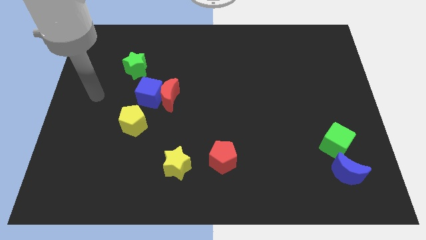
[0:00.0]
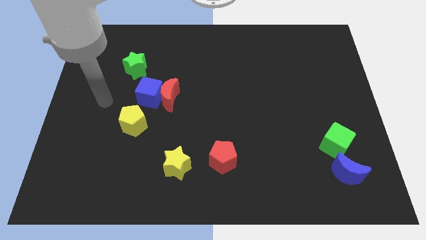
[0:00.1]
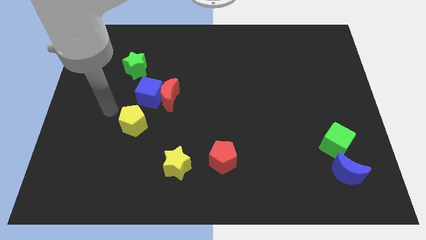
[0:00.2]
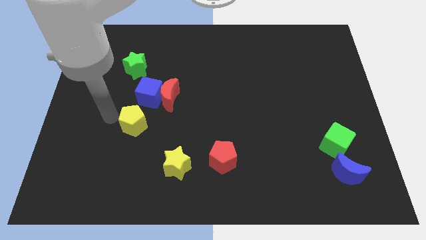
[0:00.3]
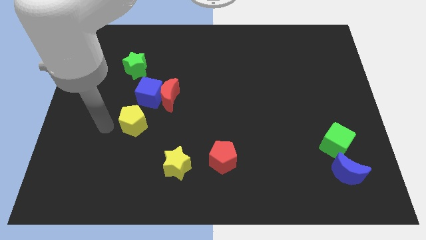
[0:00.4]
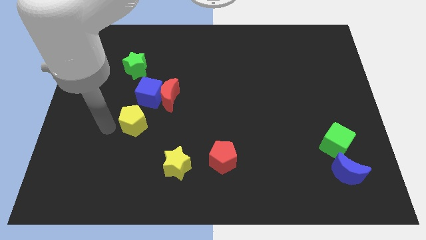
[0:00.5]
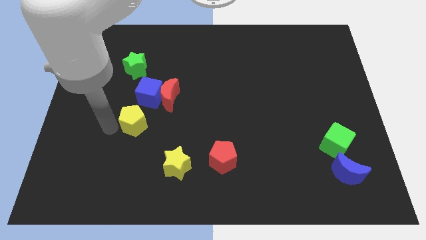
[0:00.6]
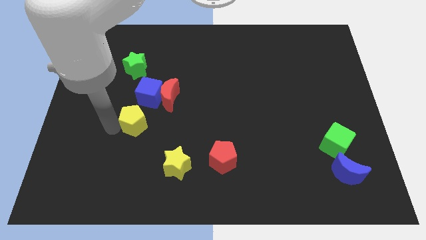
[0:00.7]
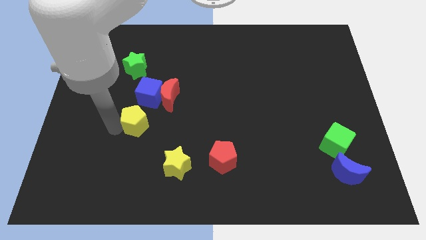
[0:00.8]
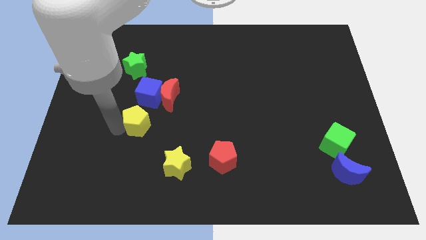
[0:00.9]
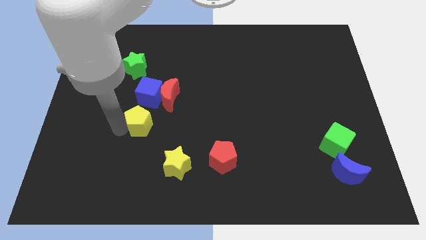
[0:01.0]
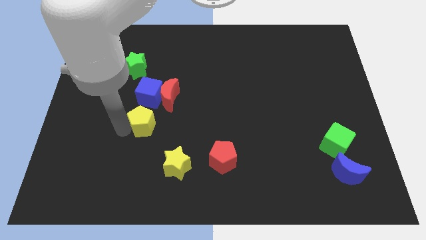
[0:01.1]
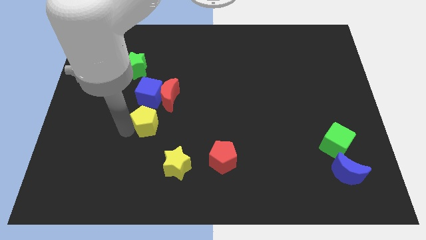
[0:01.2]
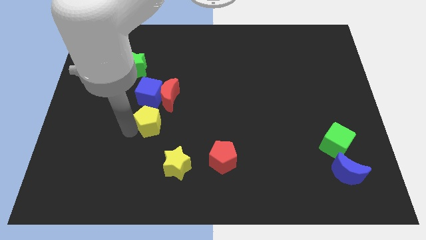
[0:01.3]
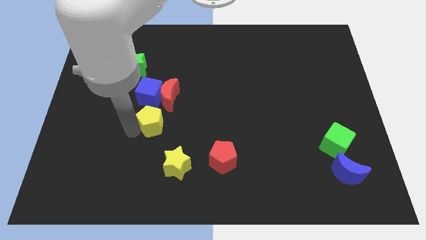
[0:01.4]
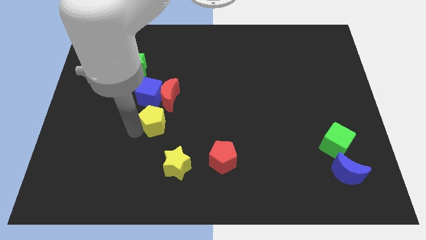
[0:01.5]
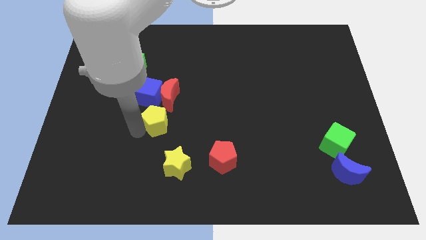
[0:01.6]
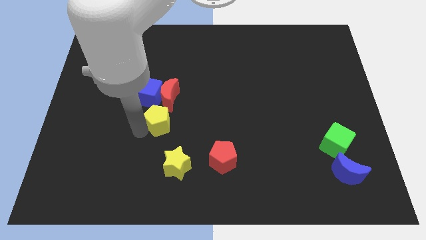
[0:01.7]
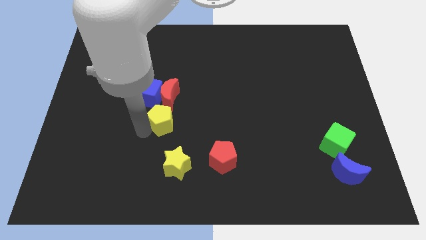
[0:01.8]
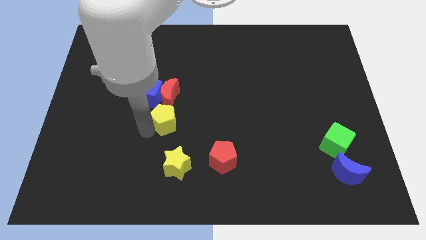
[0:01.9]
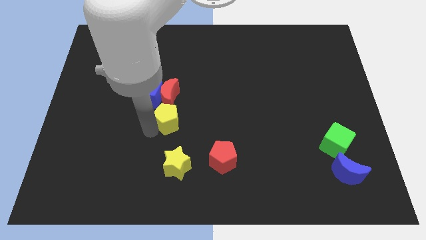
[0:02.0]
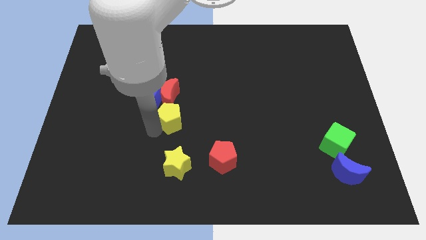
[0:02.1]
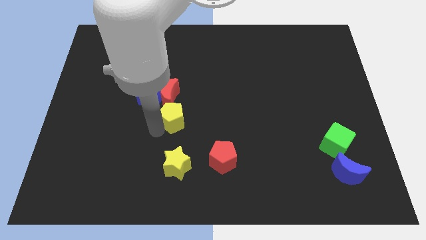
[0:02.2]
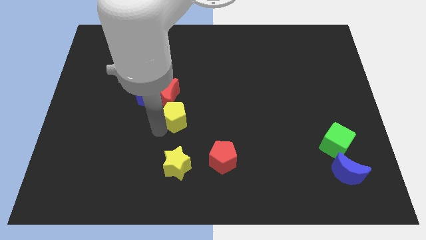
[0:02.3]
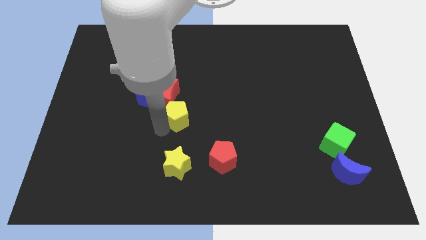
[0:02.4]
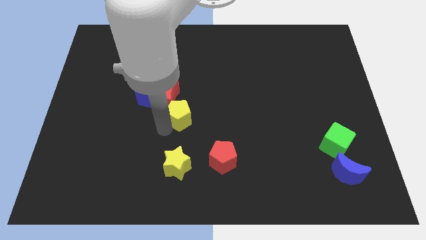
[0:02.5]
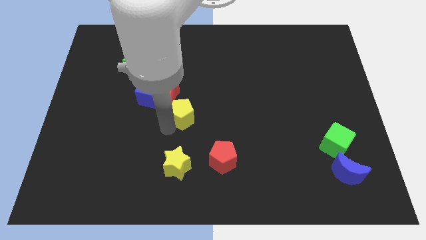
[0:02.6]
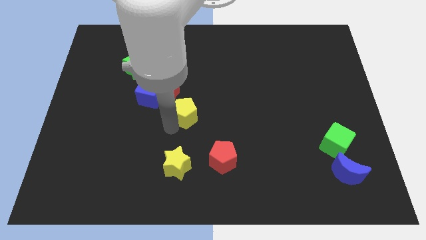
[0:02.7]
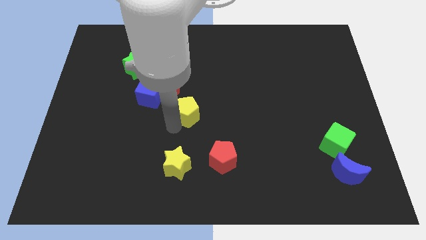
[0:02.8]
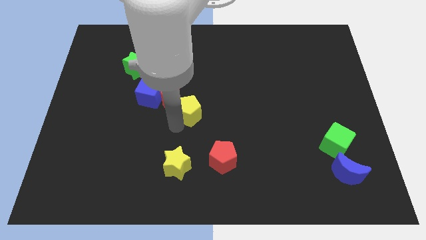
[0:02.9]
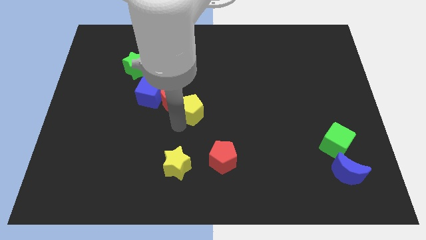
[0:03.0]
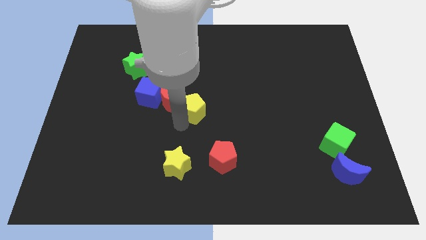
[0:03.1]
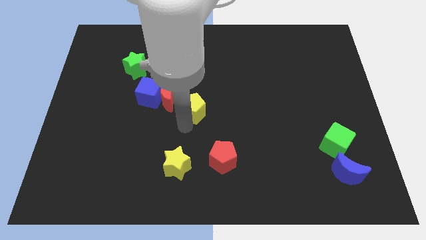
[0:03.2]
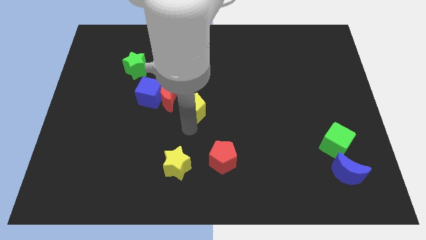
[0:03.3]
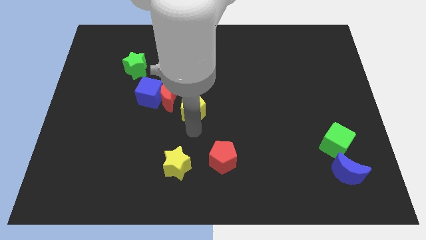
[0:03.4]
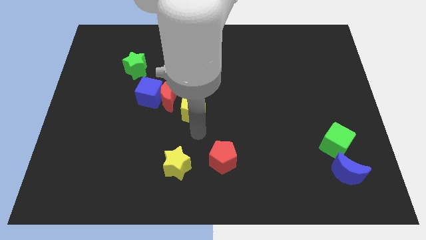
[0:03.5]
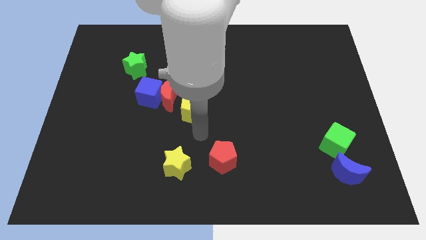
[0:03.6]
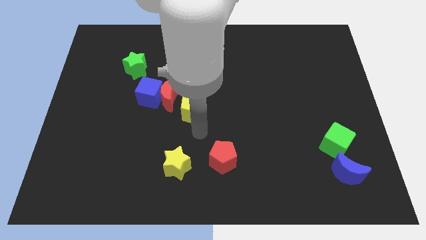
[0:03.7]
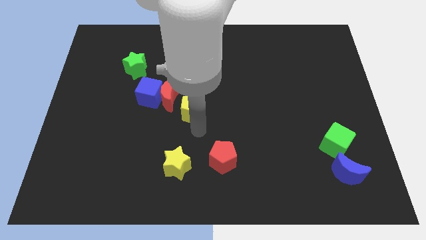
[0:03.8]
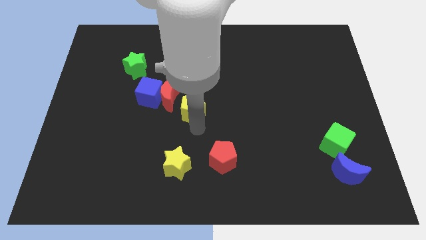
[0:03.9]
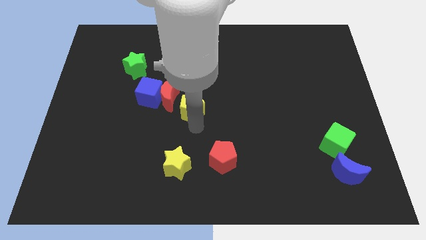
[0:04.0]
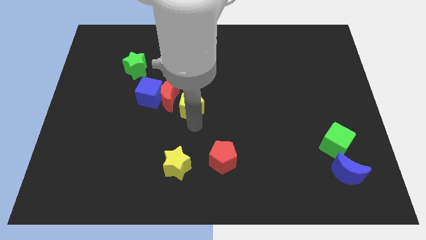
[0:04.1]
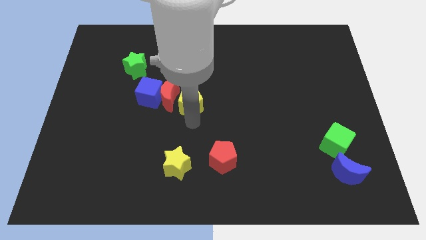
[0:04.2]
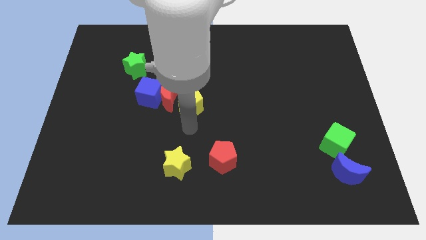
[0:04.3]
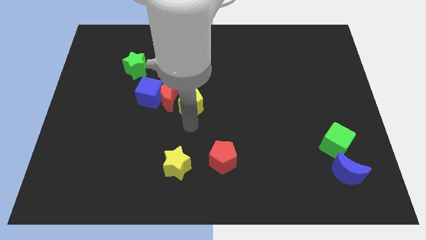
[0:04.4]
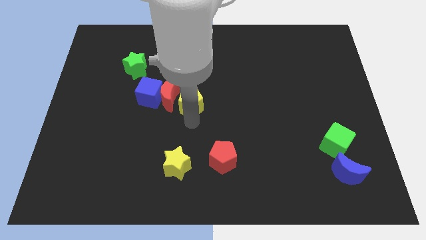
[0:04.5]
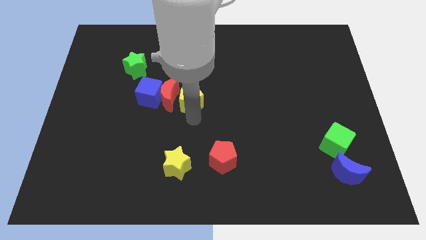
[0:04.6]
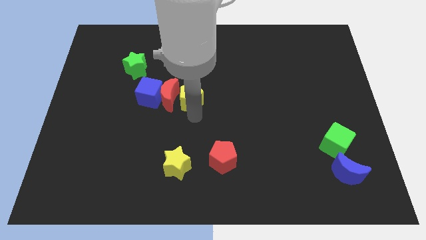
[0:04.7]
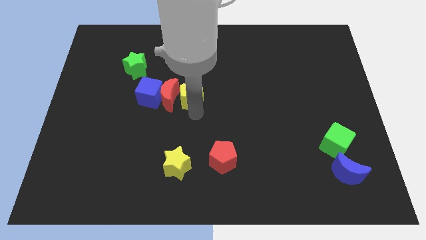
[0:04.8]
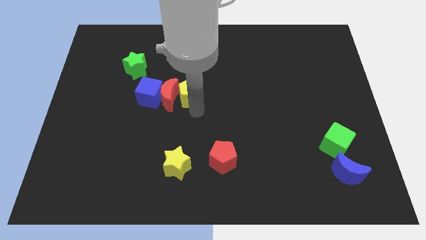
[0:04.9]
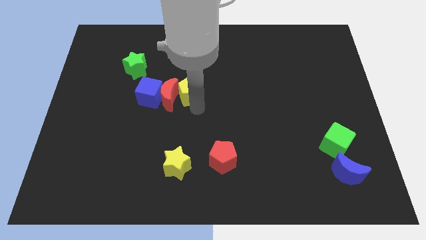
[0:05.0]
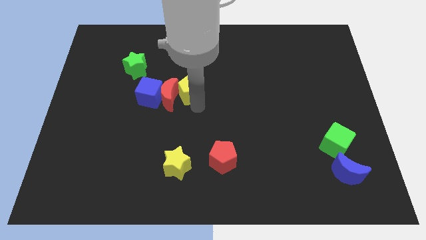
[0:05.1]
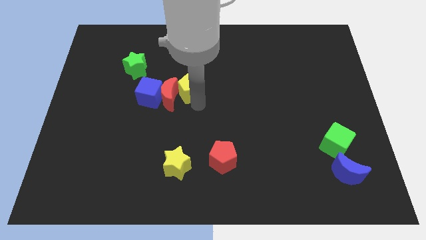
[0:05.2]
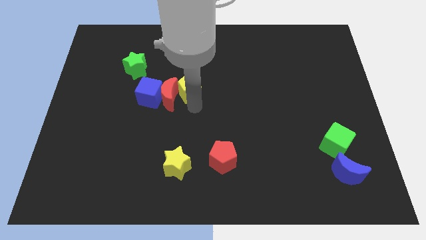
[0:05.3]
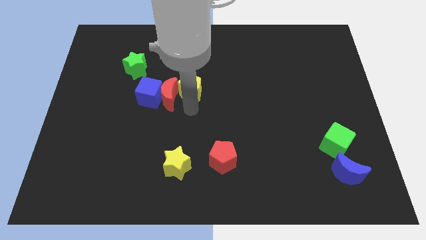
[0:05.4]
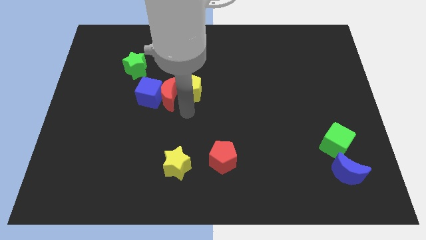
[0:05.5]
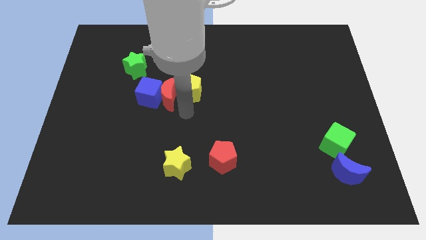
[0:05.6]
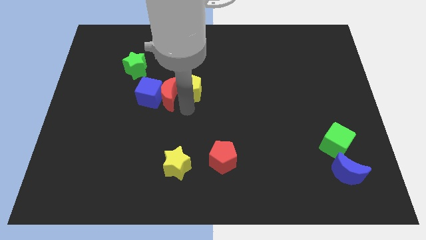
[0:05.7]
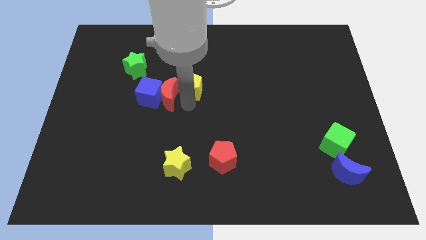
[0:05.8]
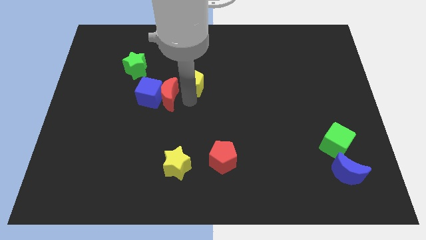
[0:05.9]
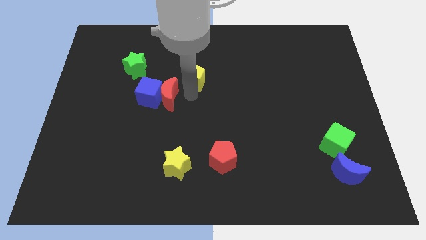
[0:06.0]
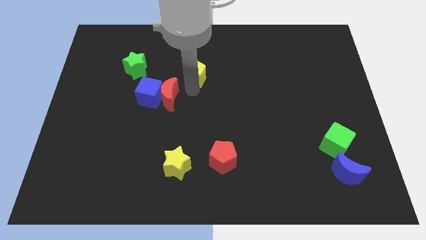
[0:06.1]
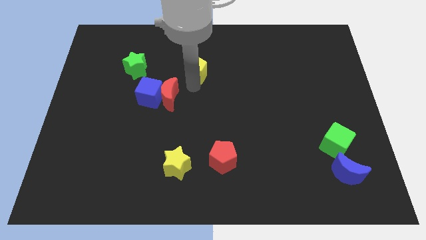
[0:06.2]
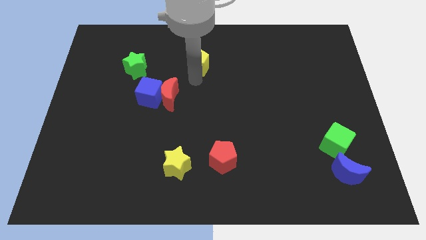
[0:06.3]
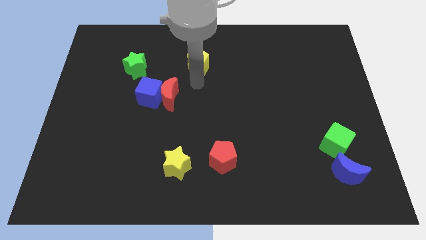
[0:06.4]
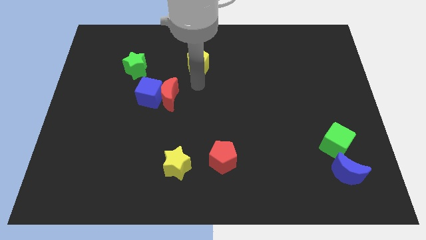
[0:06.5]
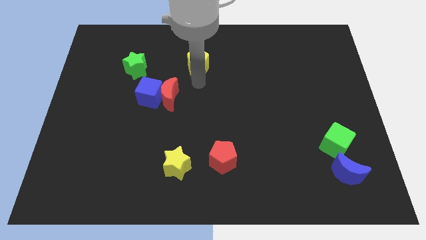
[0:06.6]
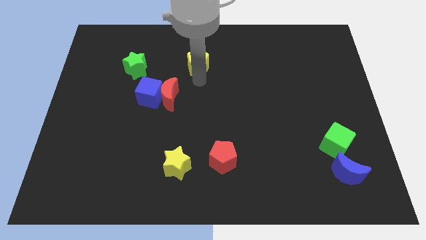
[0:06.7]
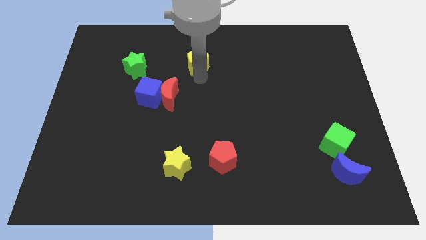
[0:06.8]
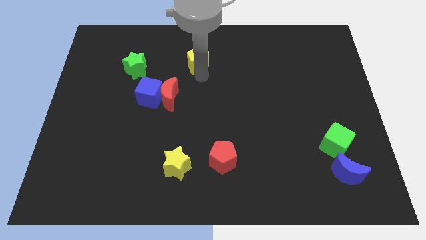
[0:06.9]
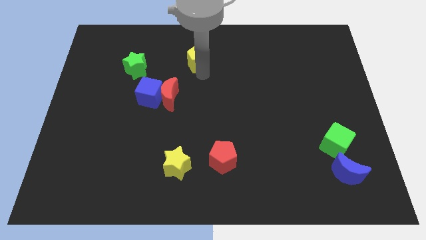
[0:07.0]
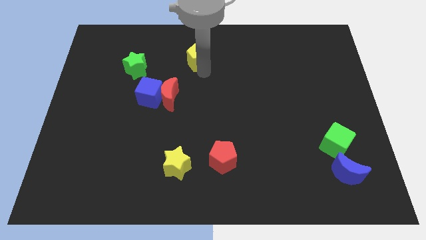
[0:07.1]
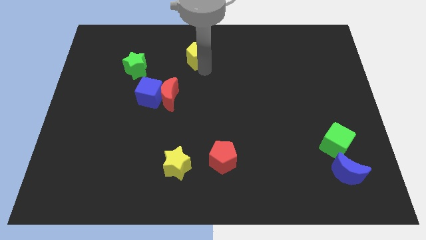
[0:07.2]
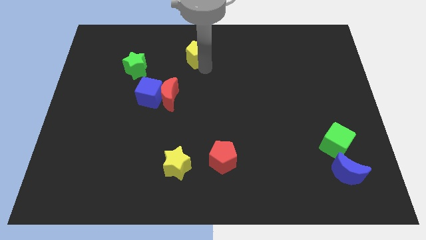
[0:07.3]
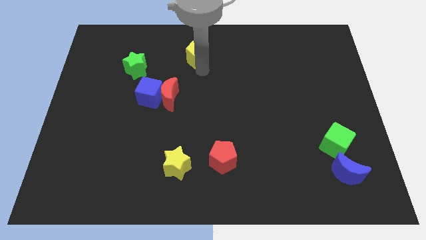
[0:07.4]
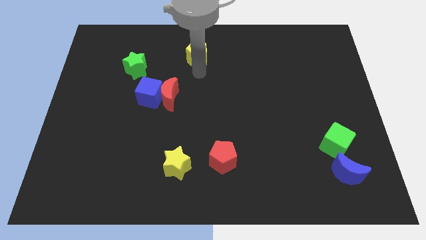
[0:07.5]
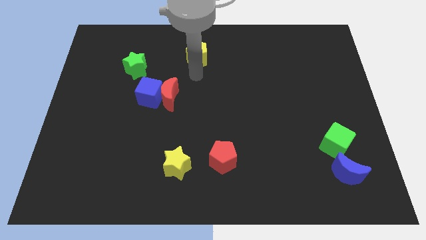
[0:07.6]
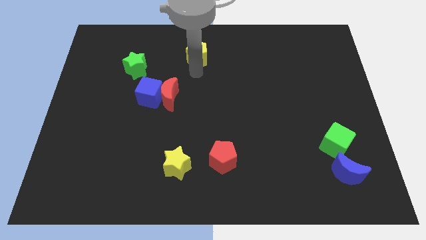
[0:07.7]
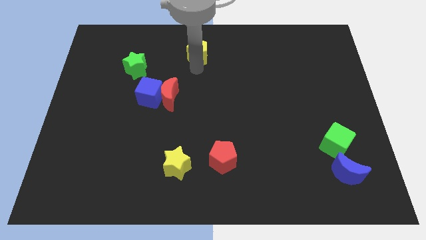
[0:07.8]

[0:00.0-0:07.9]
put the yellow pentagon to the top side
